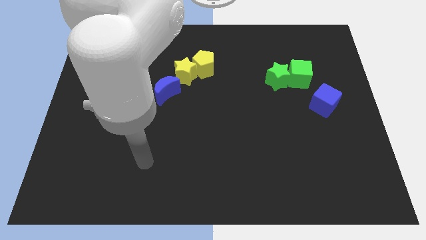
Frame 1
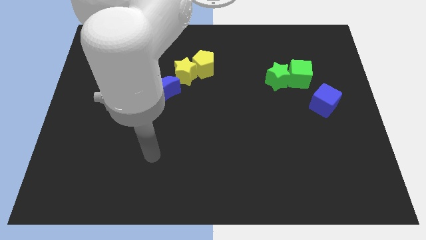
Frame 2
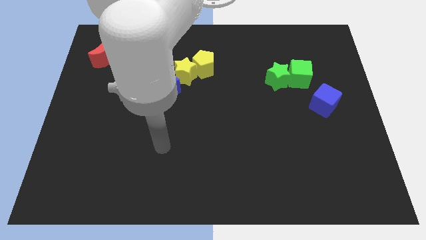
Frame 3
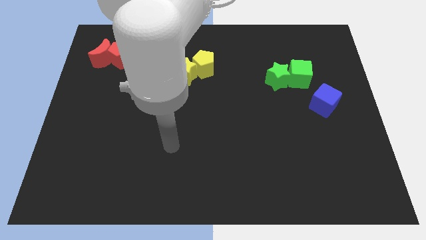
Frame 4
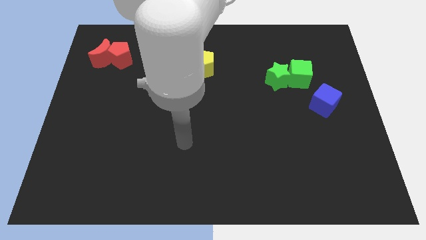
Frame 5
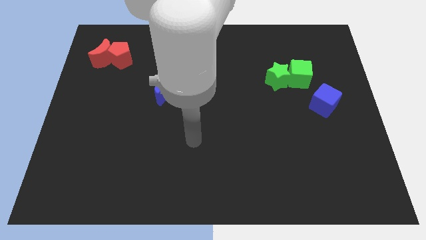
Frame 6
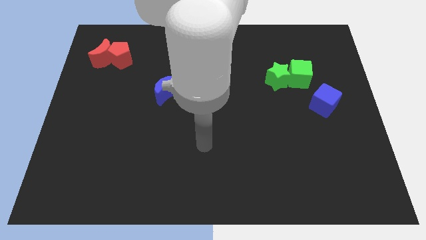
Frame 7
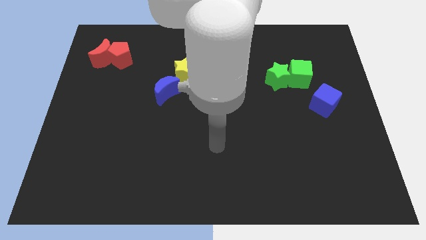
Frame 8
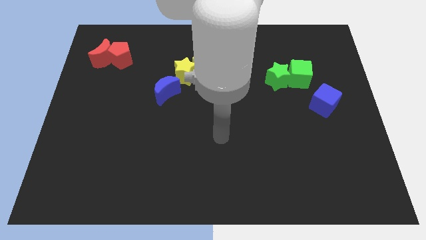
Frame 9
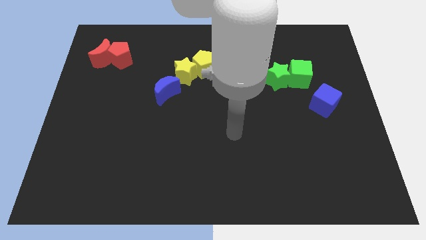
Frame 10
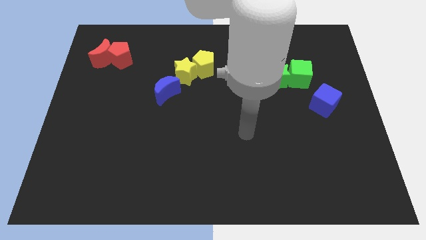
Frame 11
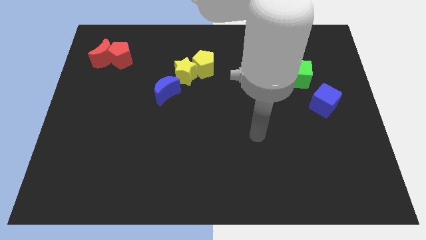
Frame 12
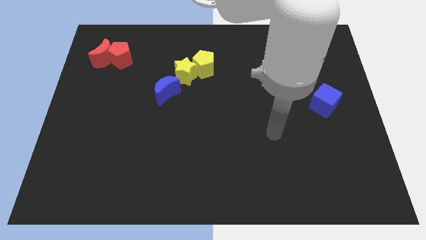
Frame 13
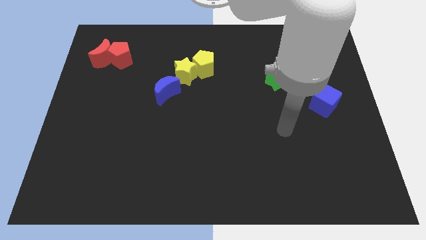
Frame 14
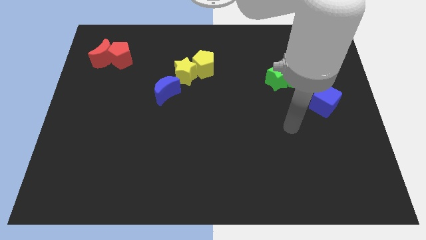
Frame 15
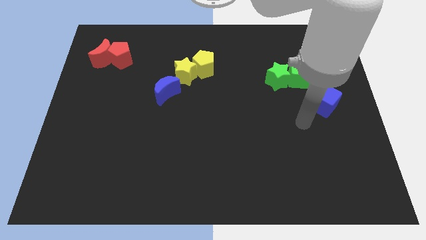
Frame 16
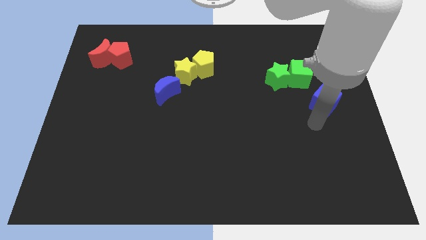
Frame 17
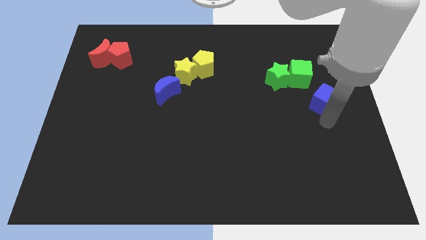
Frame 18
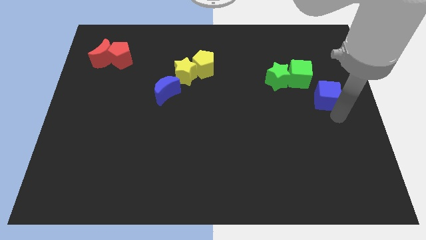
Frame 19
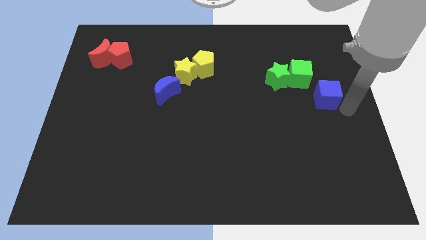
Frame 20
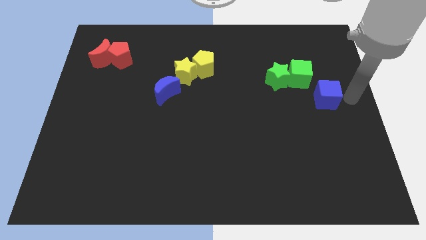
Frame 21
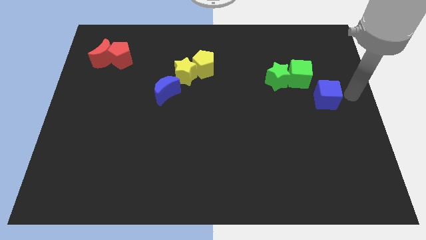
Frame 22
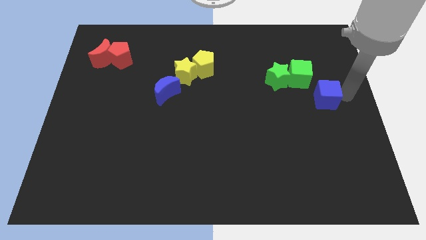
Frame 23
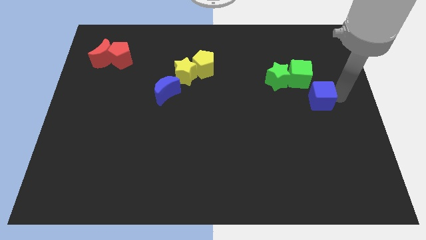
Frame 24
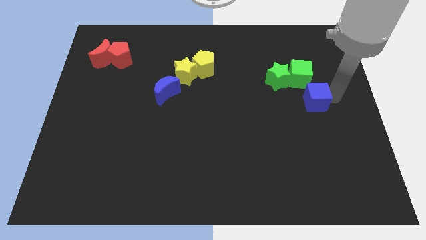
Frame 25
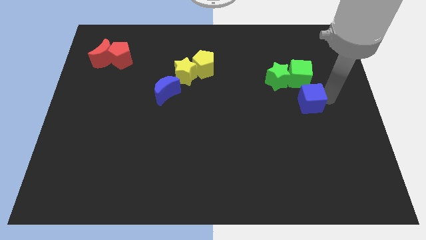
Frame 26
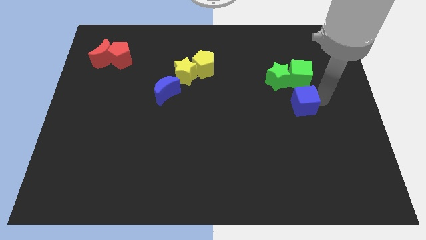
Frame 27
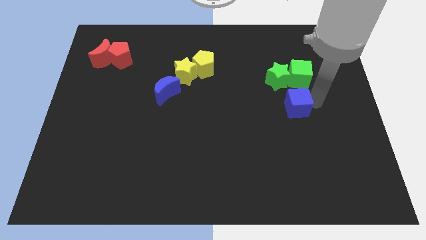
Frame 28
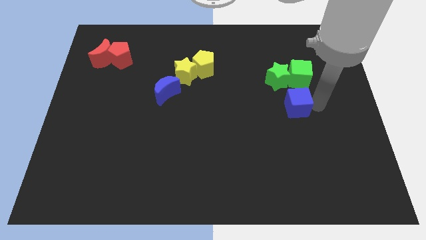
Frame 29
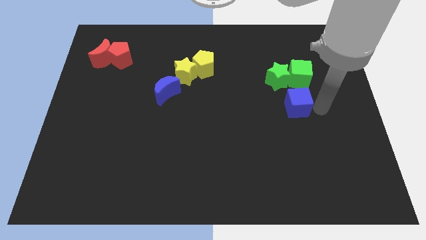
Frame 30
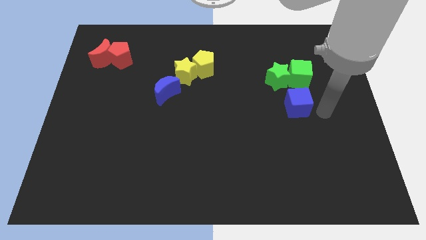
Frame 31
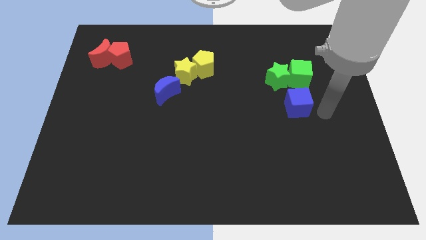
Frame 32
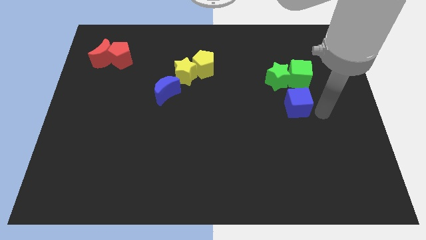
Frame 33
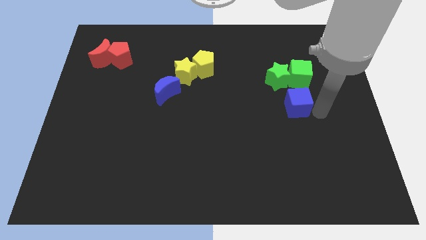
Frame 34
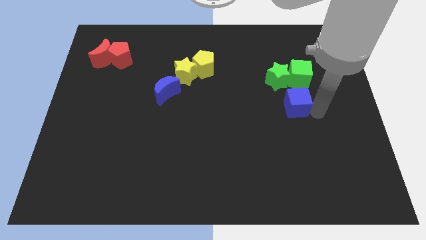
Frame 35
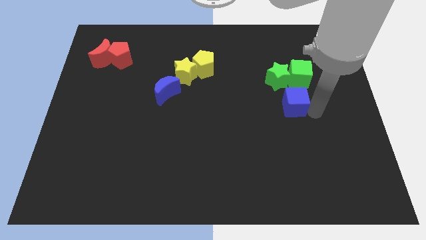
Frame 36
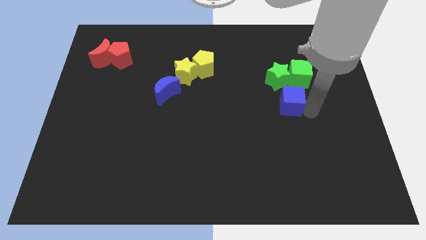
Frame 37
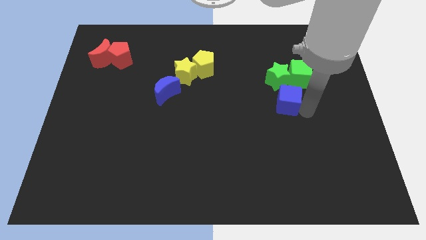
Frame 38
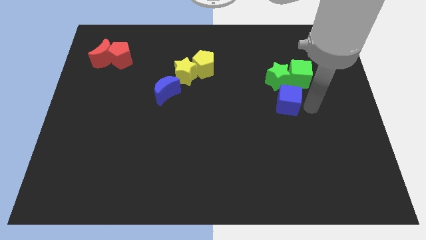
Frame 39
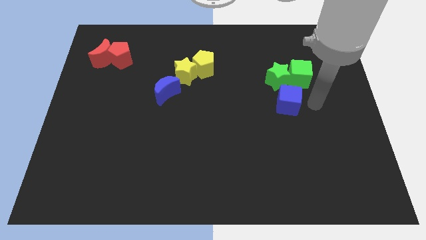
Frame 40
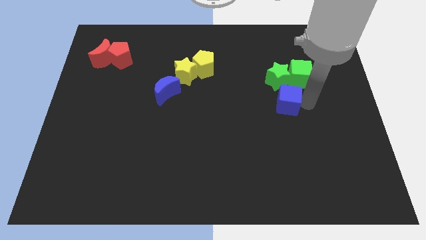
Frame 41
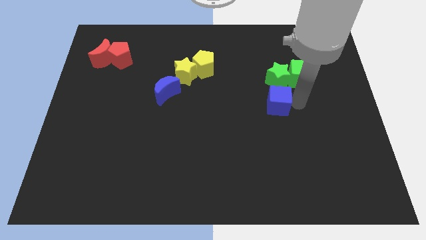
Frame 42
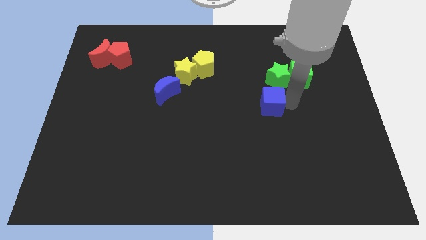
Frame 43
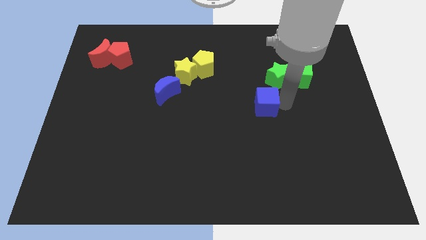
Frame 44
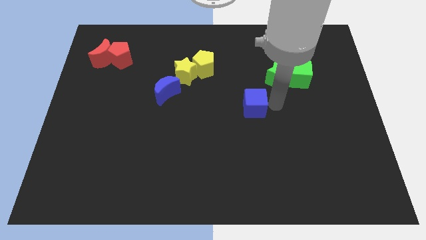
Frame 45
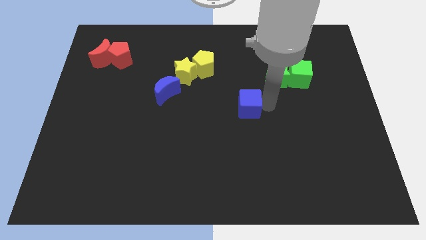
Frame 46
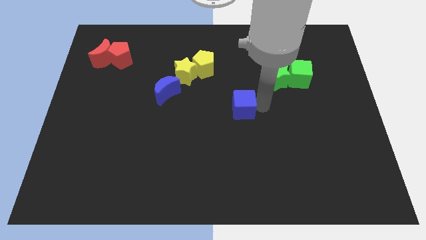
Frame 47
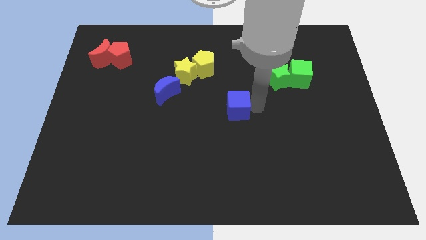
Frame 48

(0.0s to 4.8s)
push the blue cube left

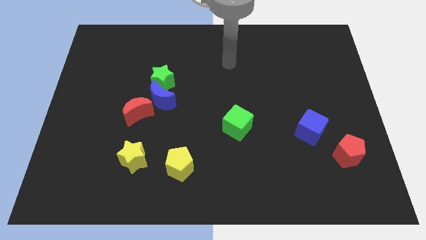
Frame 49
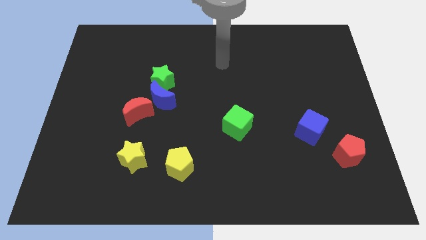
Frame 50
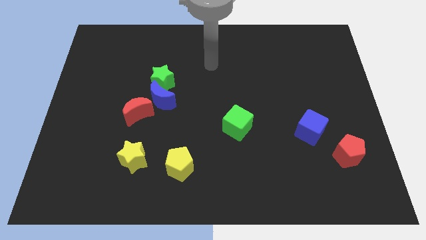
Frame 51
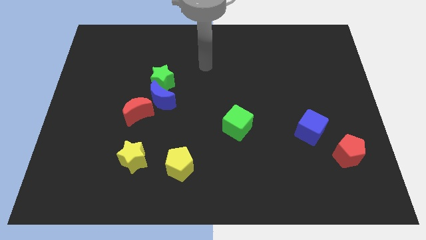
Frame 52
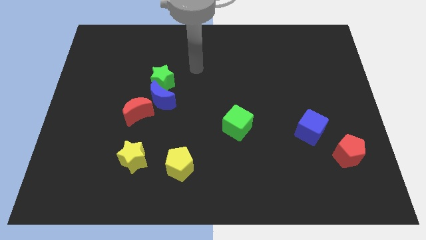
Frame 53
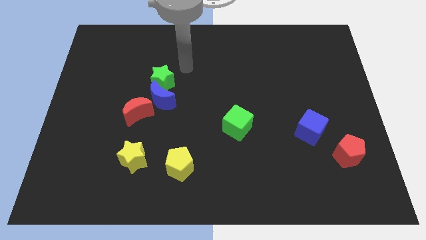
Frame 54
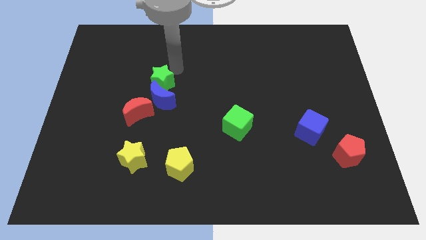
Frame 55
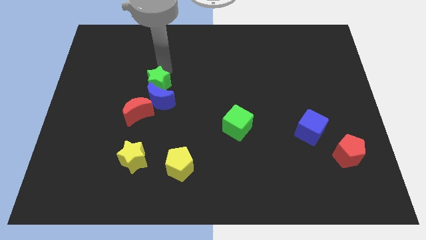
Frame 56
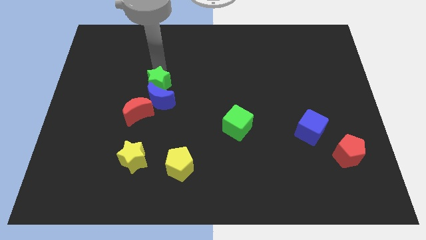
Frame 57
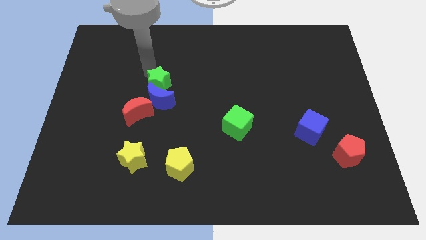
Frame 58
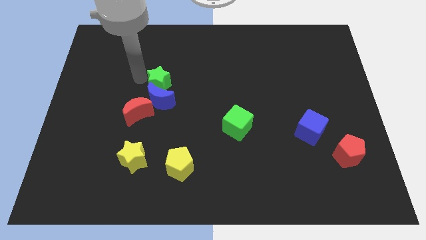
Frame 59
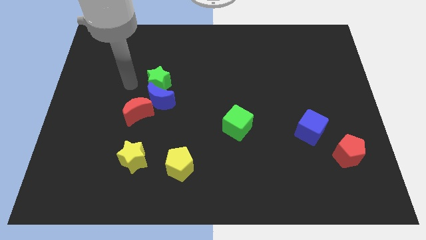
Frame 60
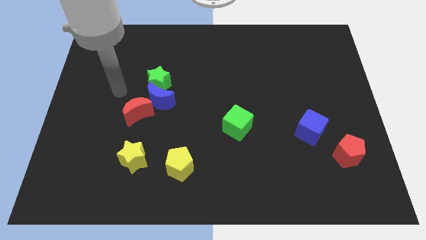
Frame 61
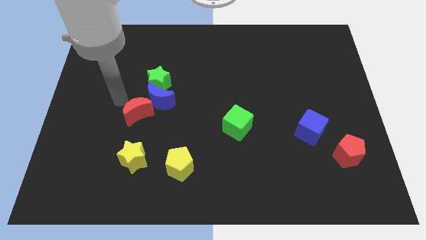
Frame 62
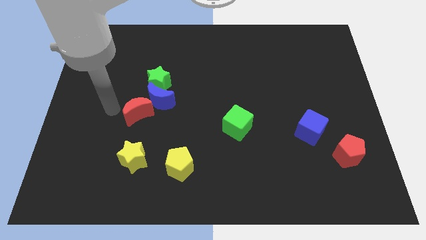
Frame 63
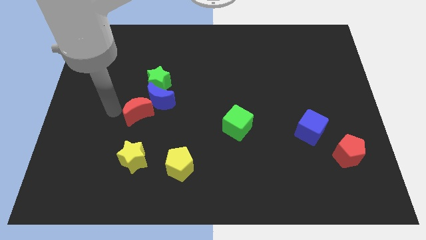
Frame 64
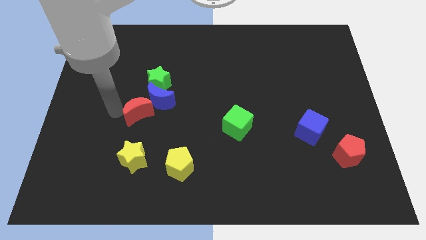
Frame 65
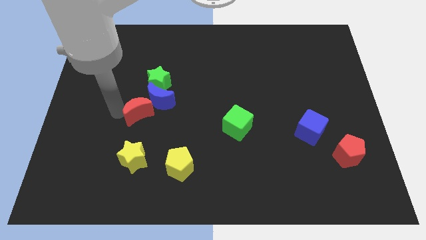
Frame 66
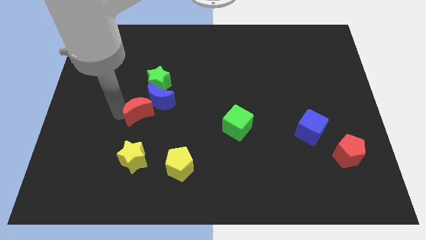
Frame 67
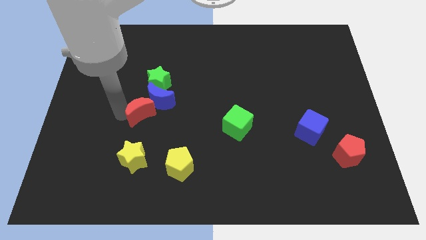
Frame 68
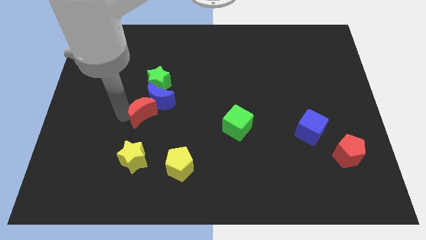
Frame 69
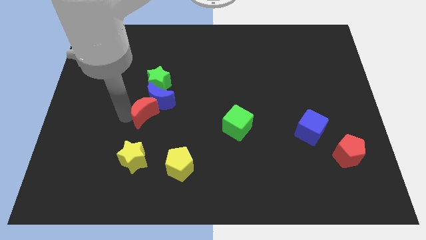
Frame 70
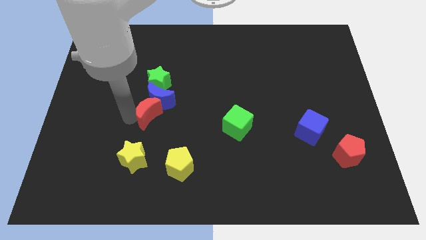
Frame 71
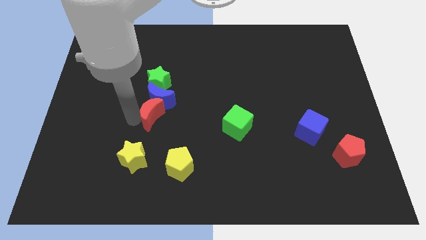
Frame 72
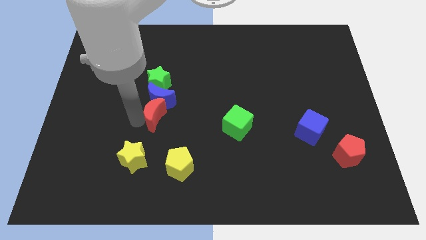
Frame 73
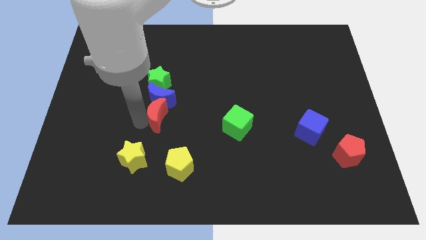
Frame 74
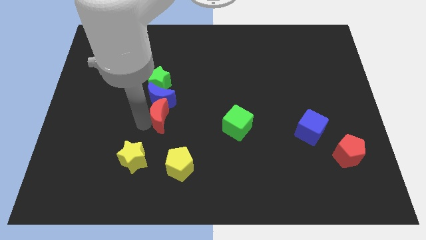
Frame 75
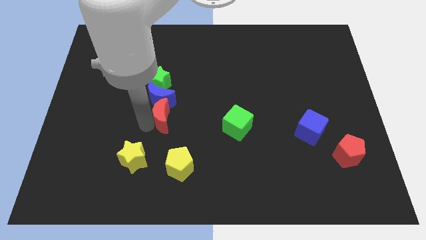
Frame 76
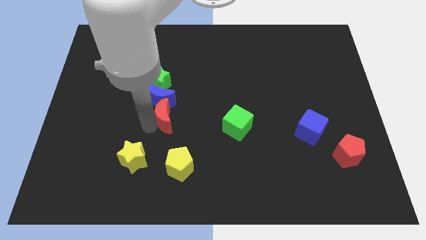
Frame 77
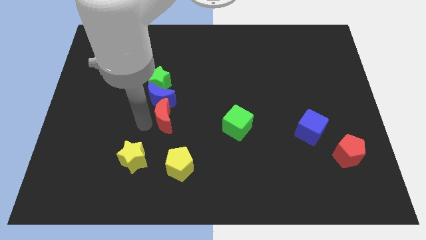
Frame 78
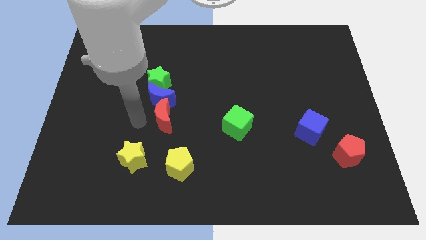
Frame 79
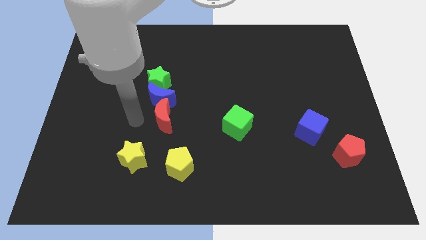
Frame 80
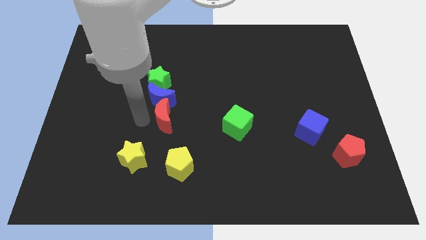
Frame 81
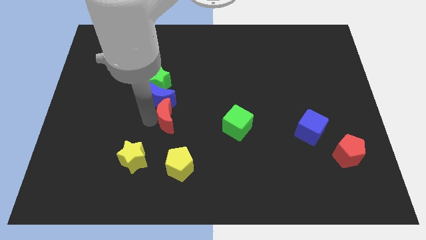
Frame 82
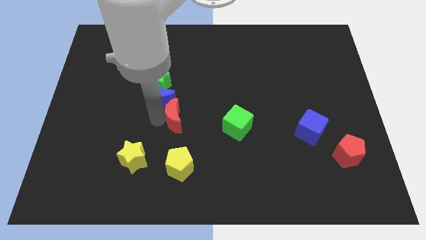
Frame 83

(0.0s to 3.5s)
slide the red moon a little bit to the right
